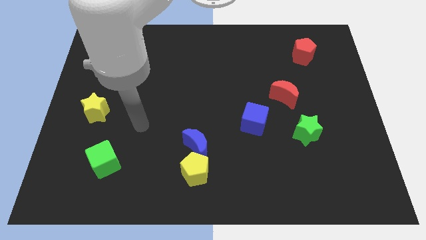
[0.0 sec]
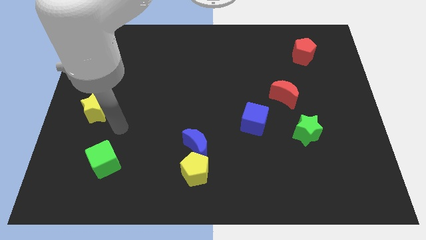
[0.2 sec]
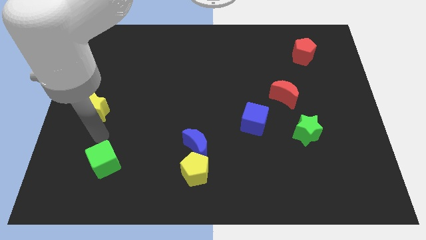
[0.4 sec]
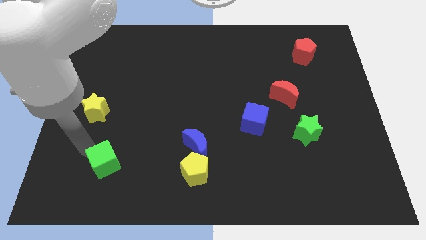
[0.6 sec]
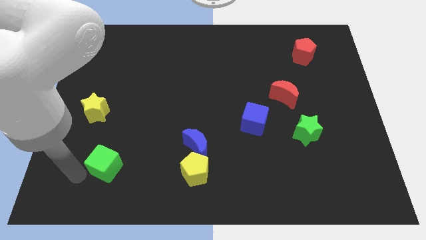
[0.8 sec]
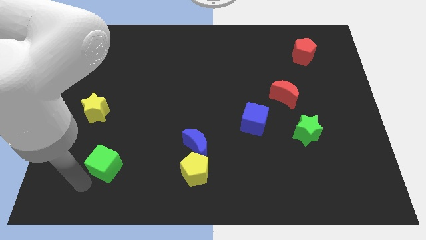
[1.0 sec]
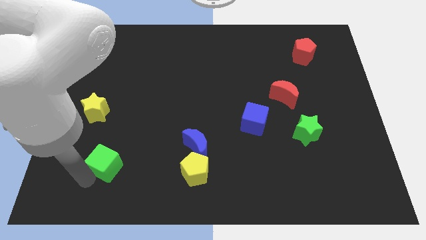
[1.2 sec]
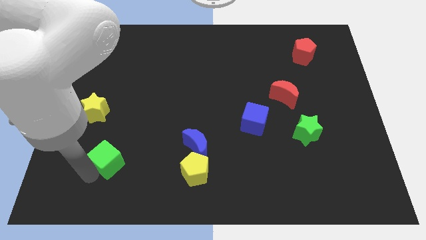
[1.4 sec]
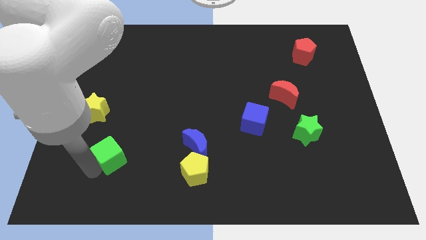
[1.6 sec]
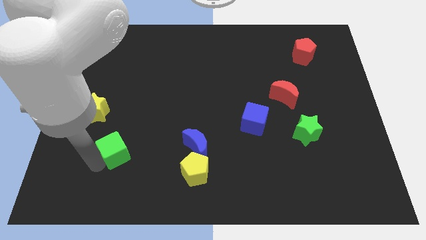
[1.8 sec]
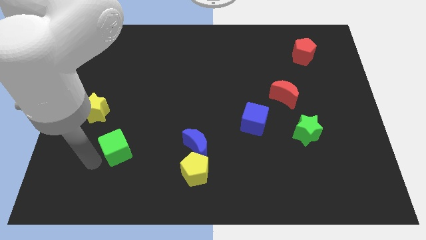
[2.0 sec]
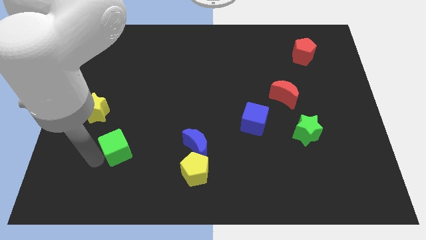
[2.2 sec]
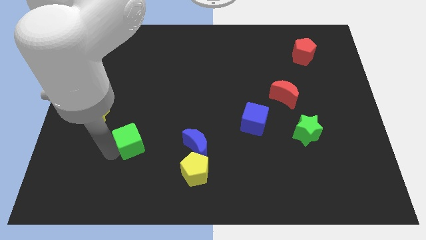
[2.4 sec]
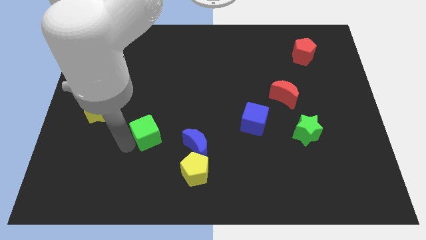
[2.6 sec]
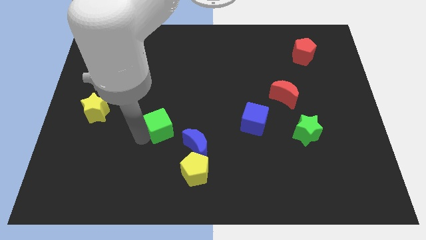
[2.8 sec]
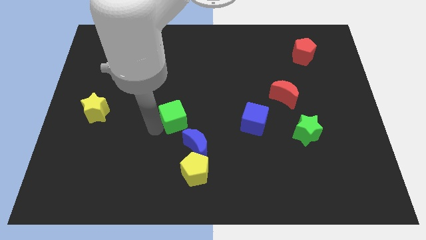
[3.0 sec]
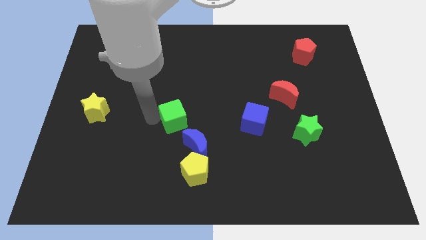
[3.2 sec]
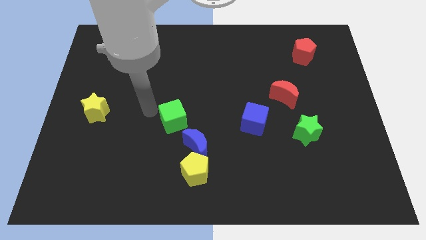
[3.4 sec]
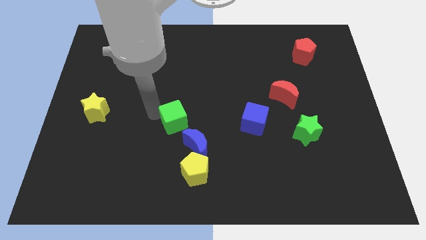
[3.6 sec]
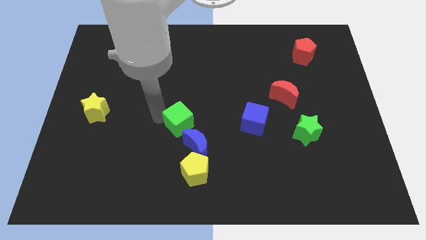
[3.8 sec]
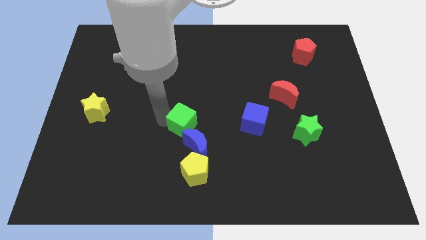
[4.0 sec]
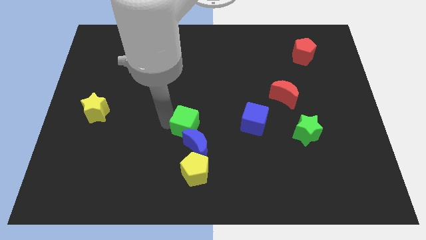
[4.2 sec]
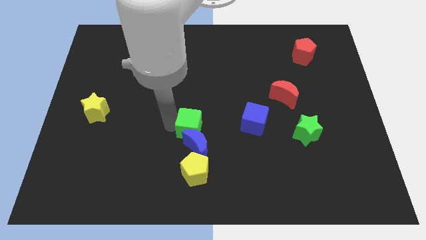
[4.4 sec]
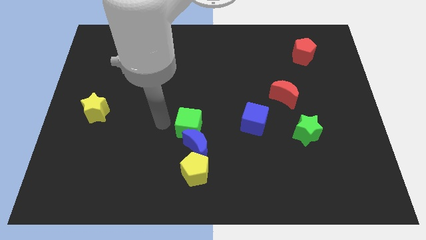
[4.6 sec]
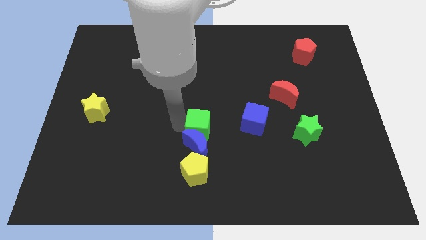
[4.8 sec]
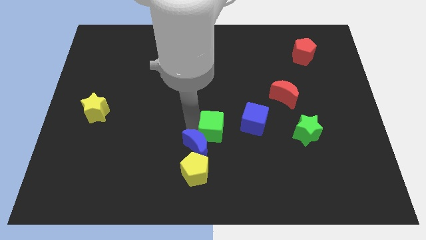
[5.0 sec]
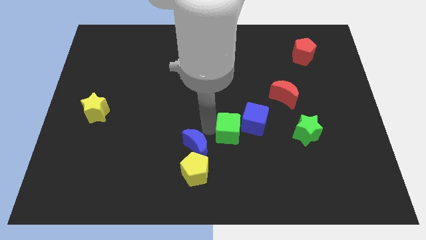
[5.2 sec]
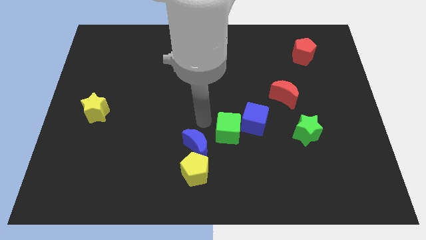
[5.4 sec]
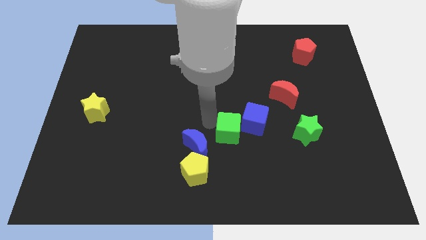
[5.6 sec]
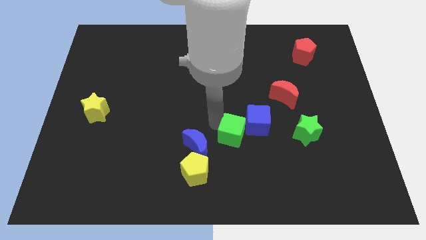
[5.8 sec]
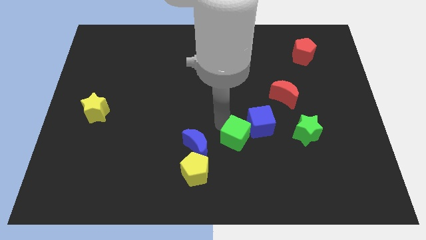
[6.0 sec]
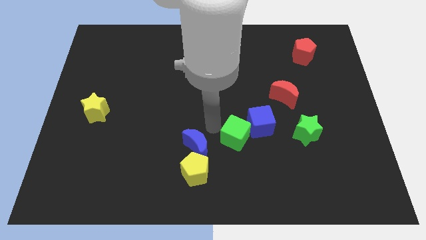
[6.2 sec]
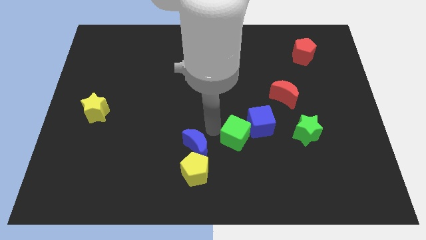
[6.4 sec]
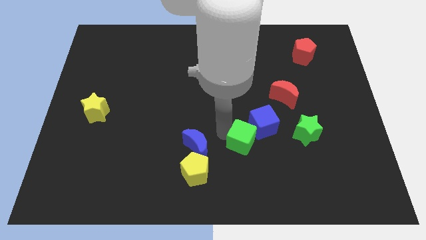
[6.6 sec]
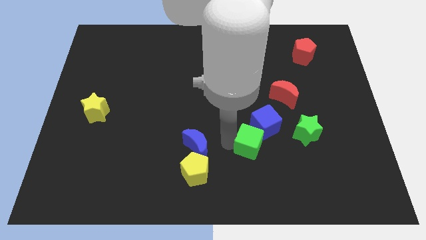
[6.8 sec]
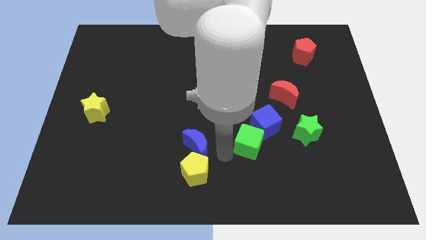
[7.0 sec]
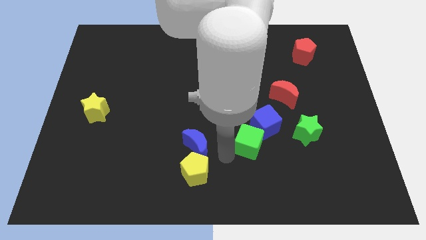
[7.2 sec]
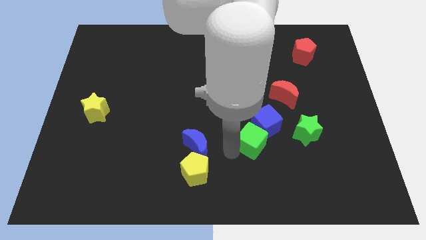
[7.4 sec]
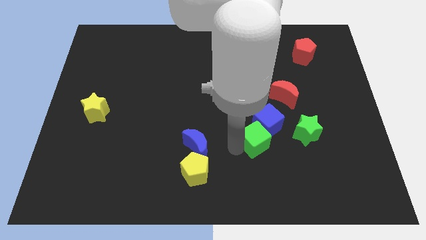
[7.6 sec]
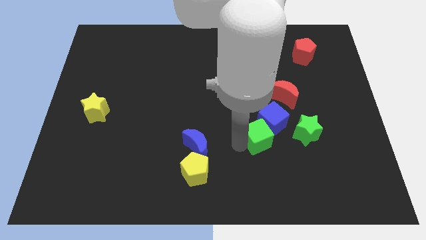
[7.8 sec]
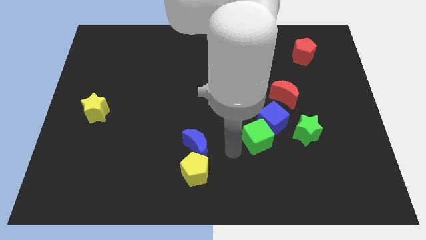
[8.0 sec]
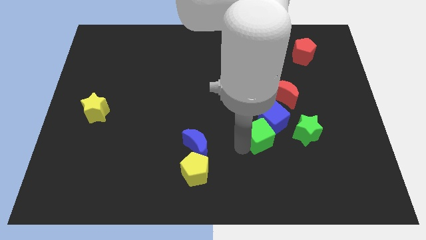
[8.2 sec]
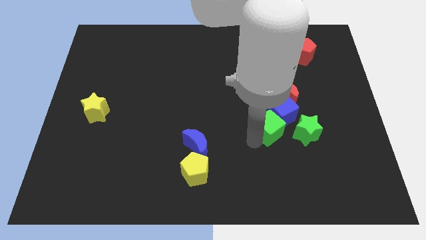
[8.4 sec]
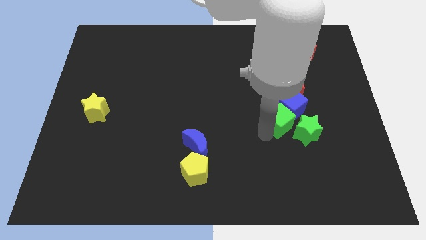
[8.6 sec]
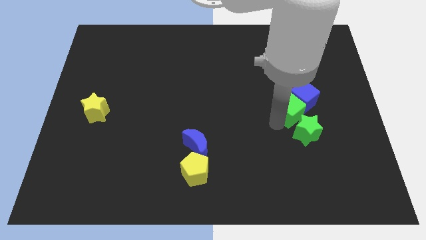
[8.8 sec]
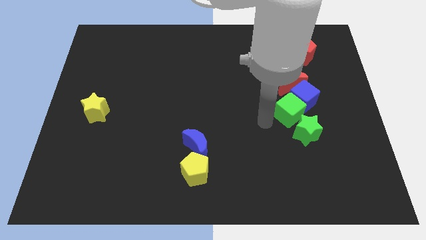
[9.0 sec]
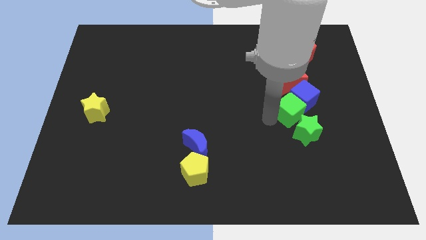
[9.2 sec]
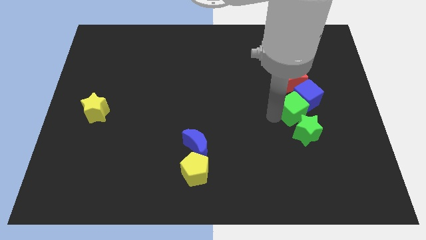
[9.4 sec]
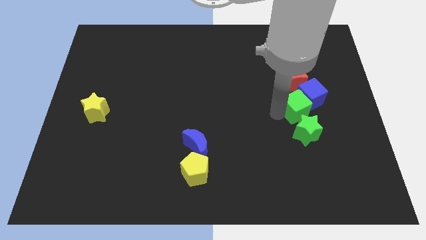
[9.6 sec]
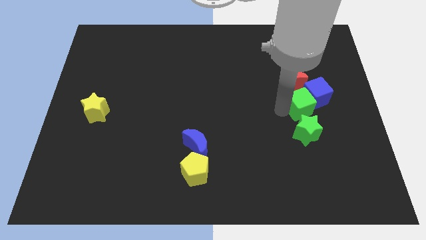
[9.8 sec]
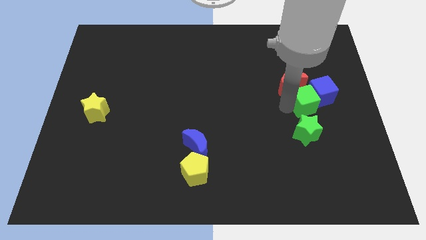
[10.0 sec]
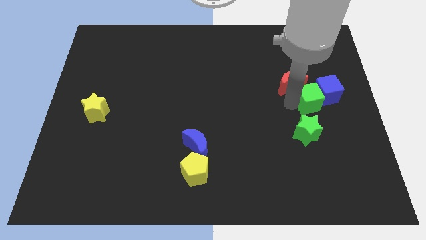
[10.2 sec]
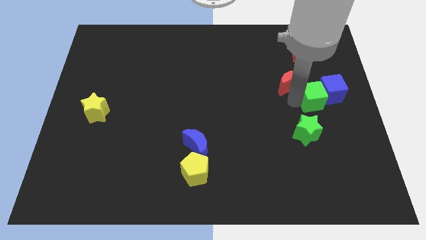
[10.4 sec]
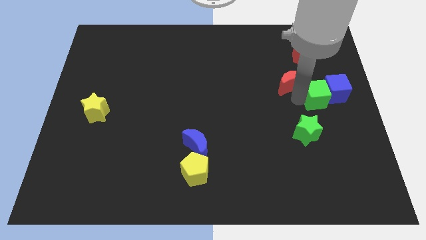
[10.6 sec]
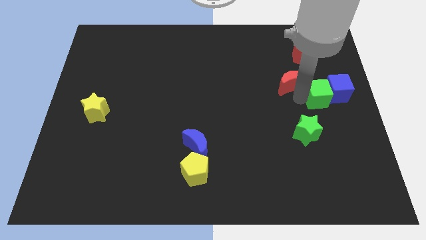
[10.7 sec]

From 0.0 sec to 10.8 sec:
push the green cube to the center right

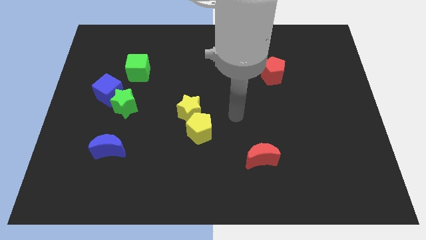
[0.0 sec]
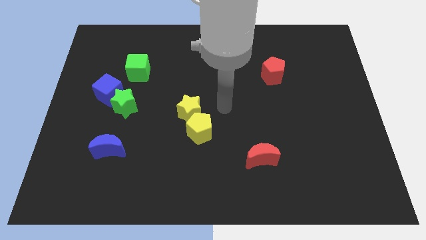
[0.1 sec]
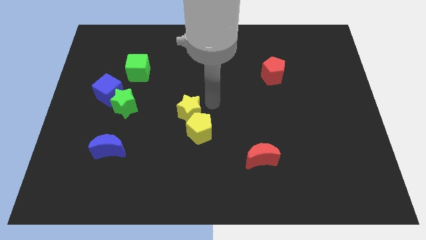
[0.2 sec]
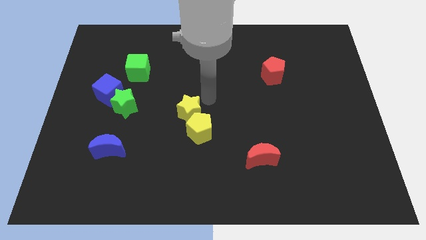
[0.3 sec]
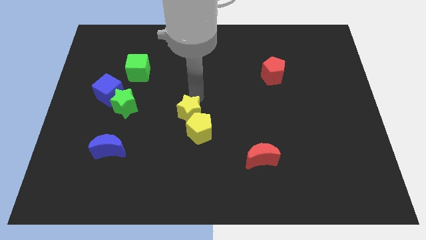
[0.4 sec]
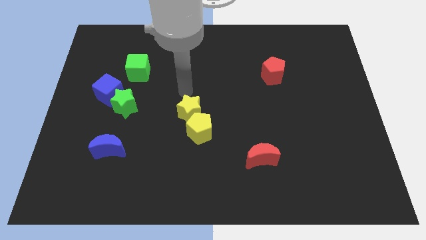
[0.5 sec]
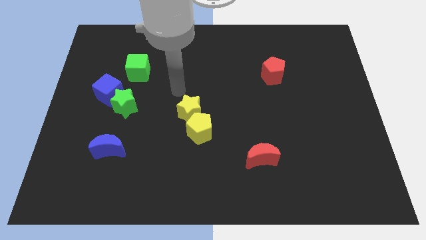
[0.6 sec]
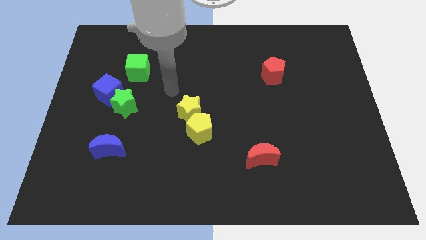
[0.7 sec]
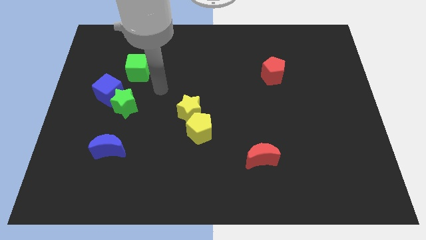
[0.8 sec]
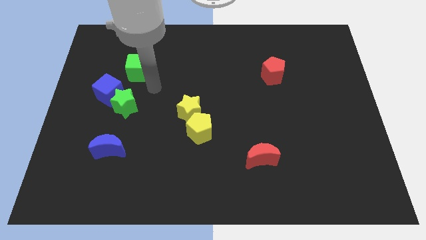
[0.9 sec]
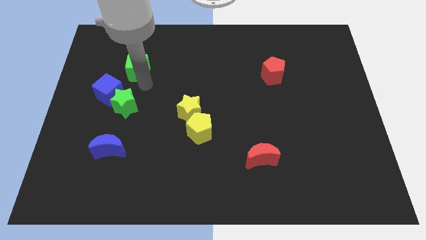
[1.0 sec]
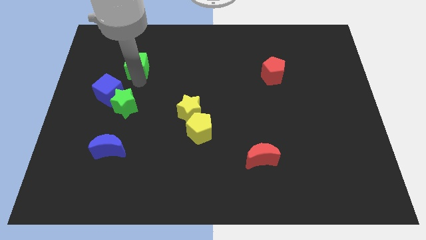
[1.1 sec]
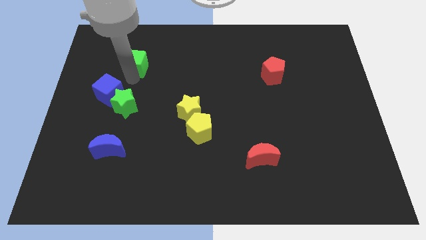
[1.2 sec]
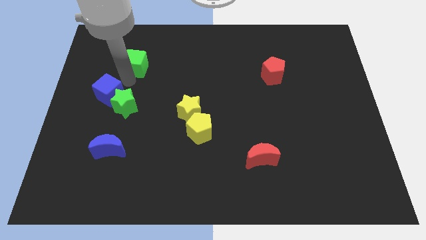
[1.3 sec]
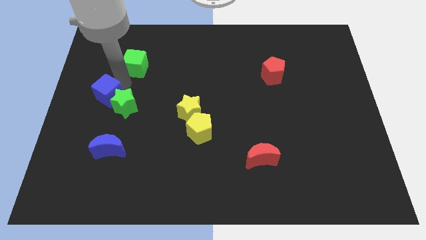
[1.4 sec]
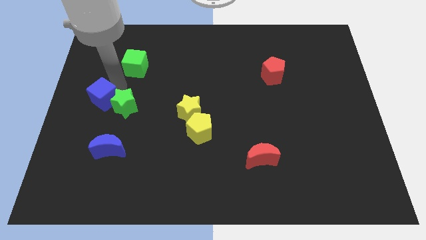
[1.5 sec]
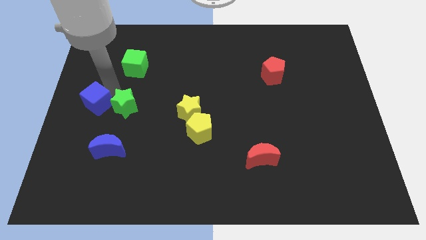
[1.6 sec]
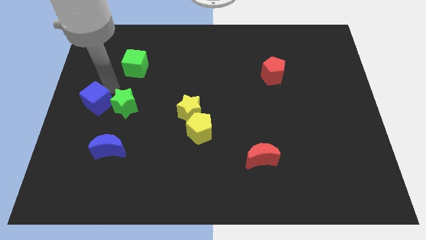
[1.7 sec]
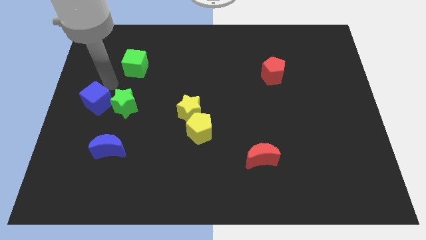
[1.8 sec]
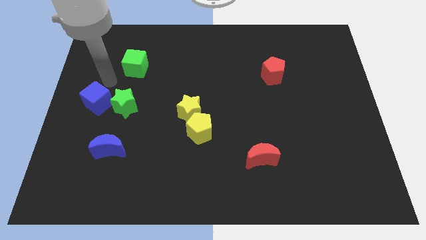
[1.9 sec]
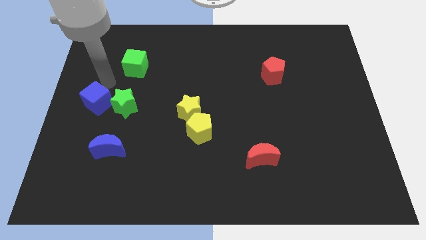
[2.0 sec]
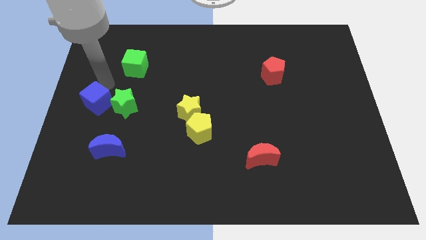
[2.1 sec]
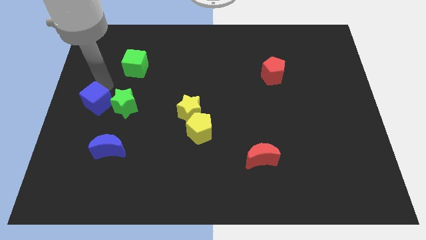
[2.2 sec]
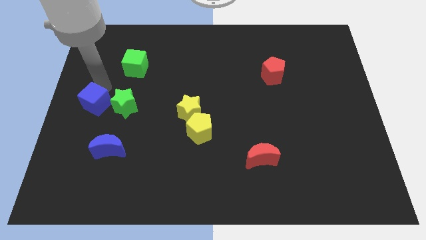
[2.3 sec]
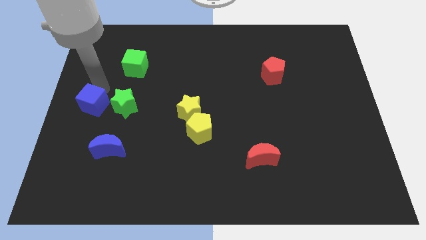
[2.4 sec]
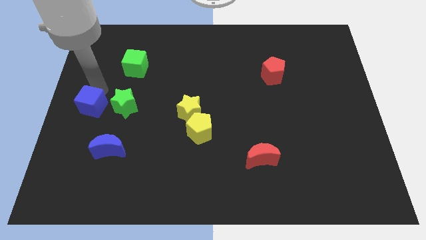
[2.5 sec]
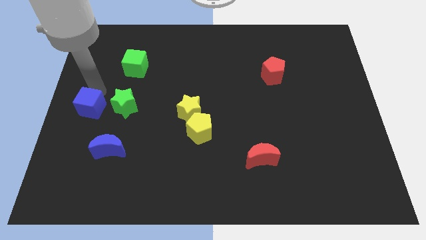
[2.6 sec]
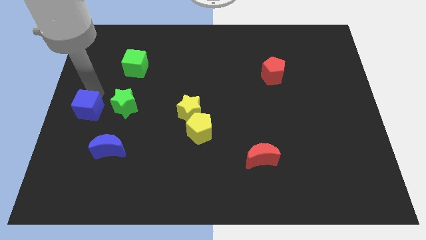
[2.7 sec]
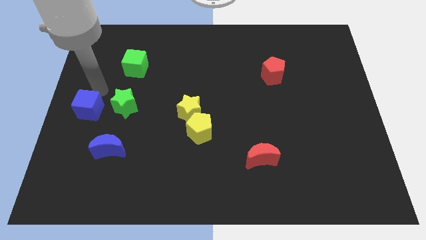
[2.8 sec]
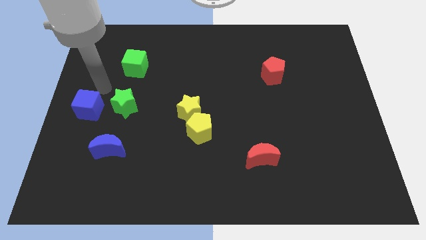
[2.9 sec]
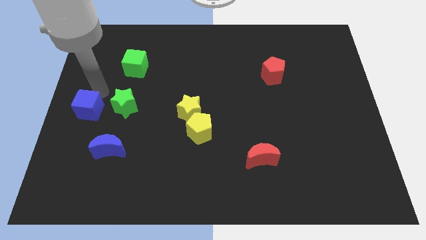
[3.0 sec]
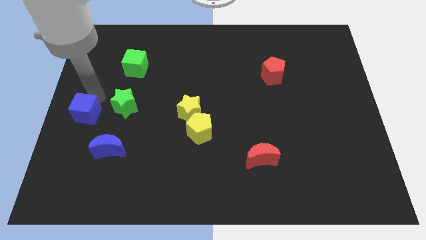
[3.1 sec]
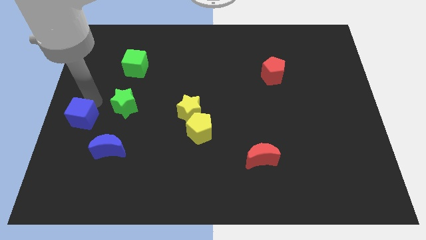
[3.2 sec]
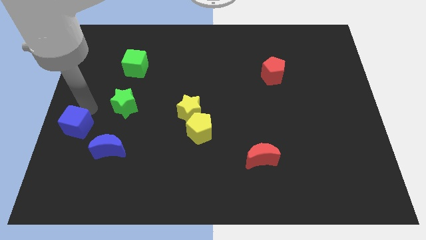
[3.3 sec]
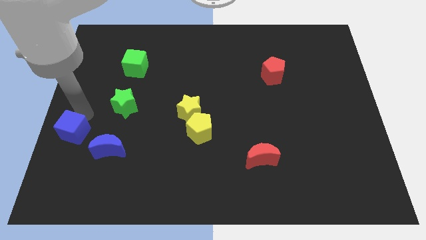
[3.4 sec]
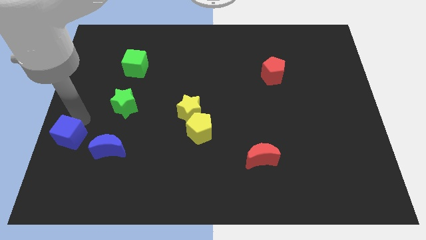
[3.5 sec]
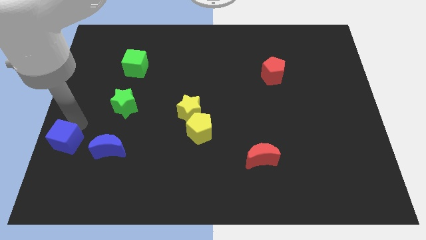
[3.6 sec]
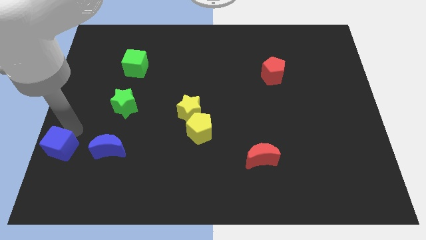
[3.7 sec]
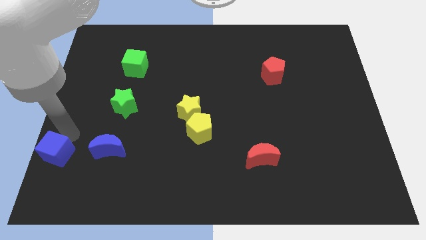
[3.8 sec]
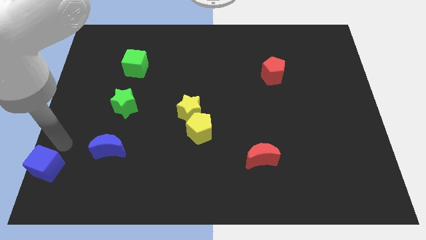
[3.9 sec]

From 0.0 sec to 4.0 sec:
push the blue cube to the bottom left of the board
